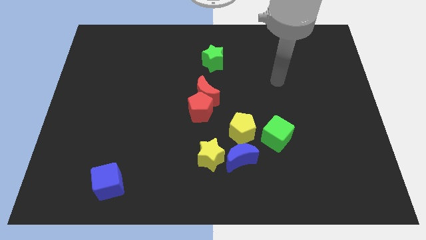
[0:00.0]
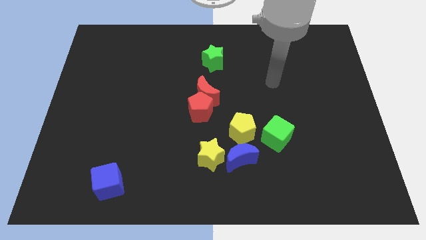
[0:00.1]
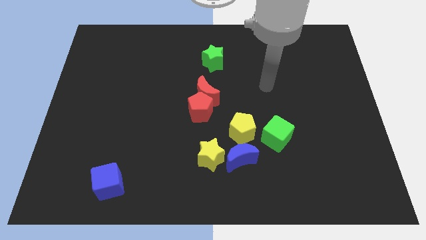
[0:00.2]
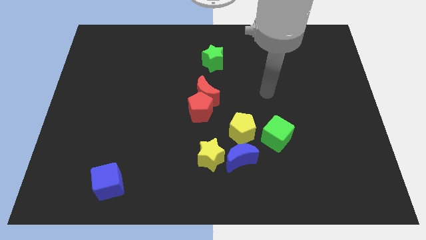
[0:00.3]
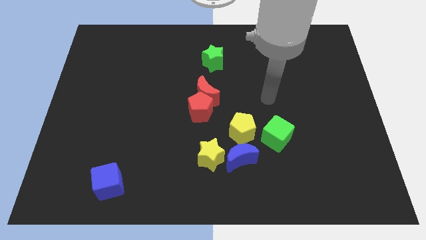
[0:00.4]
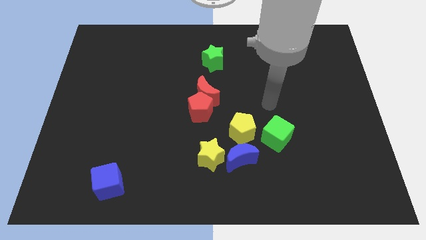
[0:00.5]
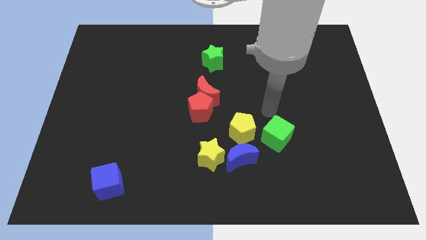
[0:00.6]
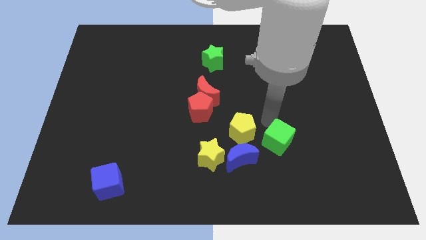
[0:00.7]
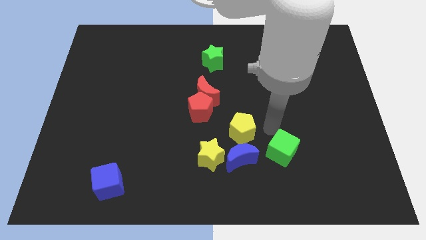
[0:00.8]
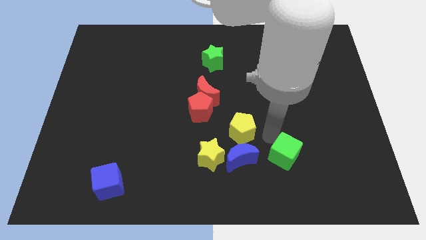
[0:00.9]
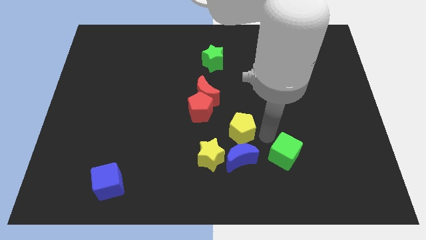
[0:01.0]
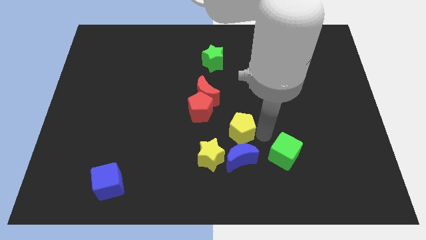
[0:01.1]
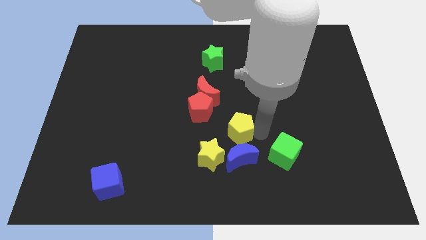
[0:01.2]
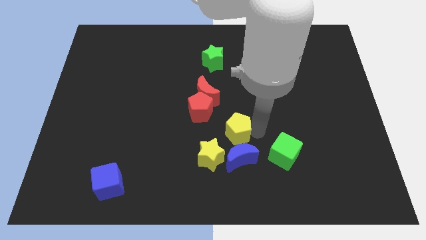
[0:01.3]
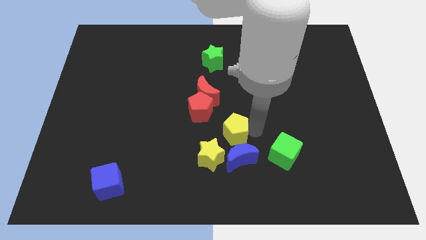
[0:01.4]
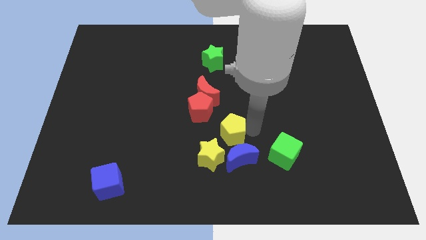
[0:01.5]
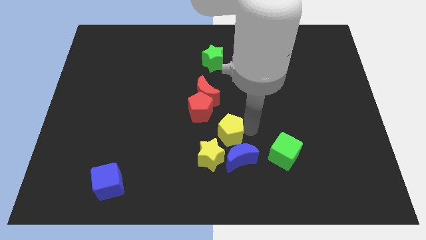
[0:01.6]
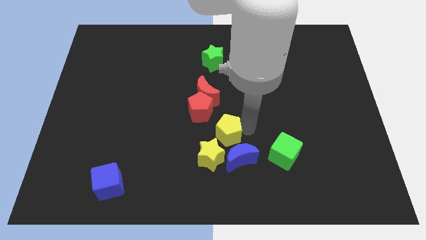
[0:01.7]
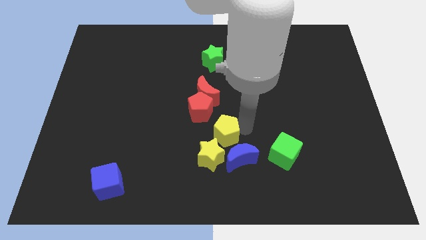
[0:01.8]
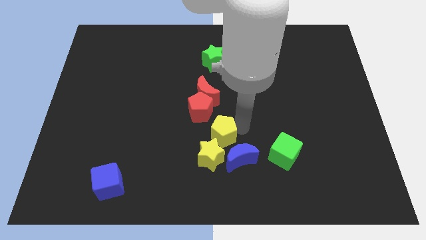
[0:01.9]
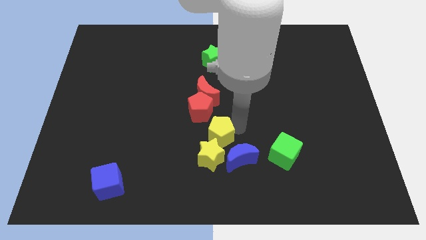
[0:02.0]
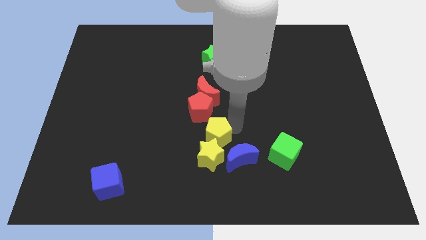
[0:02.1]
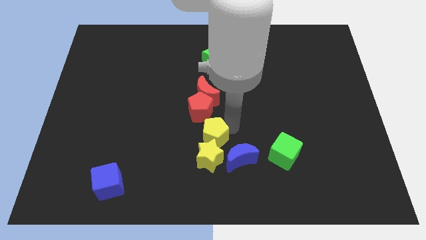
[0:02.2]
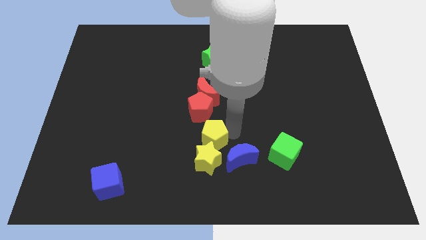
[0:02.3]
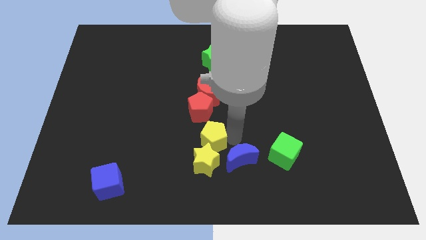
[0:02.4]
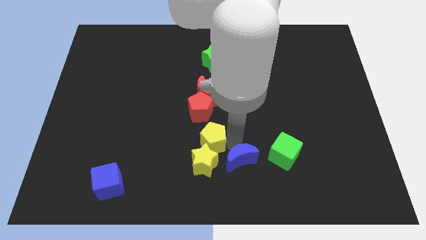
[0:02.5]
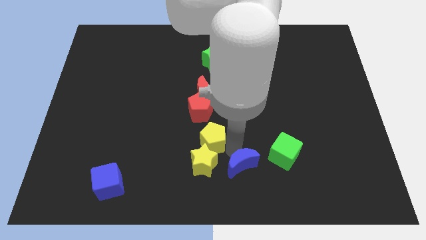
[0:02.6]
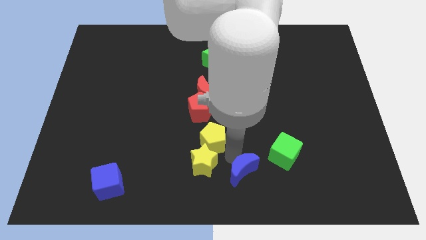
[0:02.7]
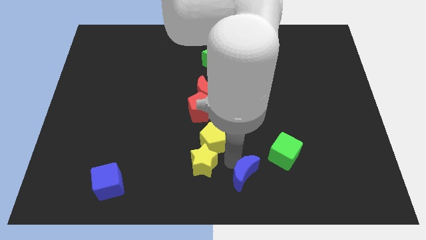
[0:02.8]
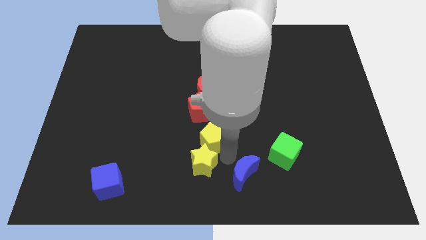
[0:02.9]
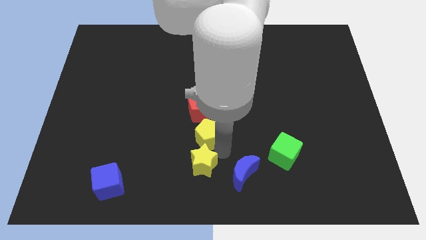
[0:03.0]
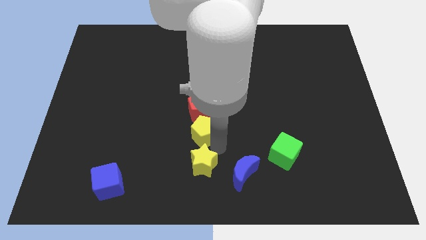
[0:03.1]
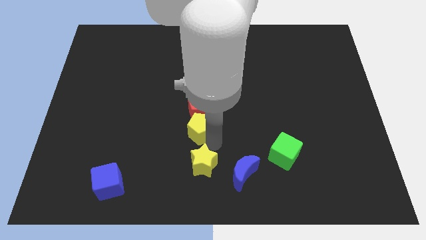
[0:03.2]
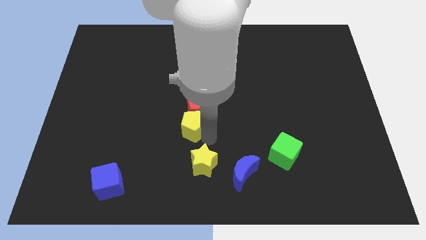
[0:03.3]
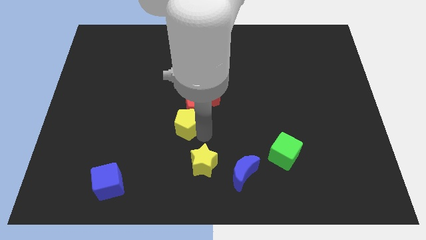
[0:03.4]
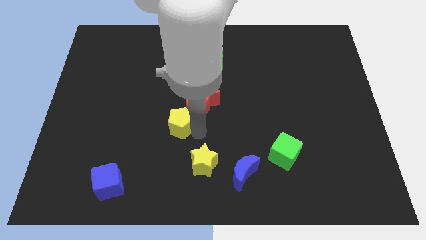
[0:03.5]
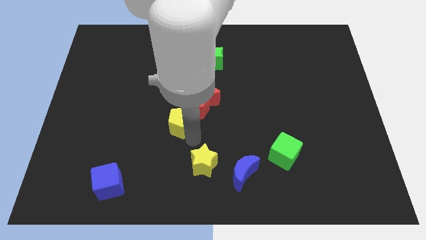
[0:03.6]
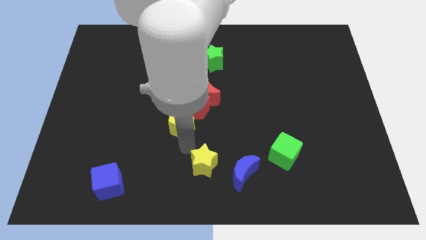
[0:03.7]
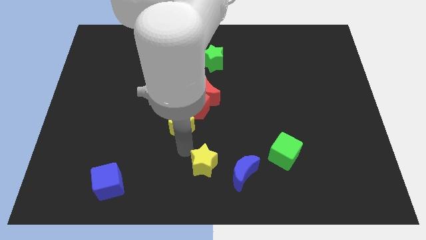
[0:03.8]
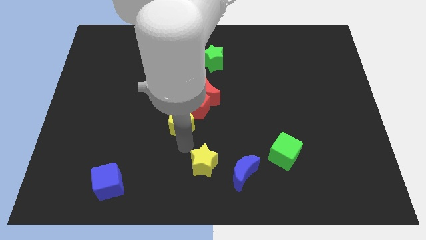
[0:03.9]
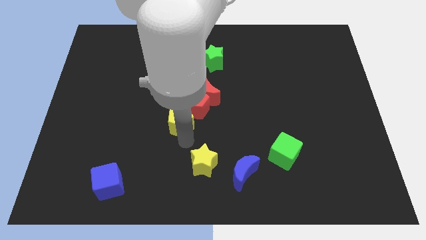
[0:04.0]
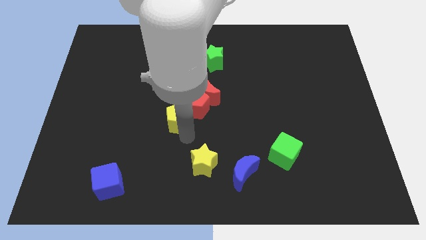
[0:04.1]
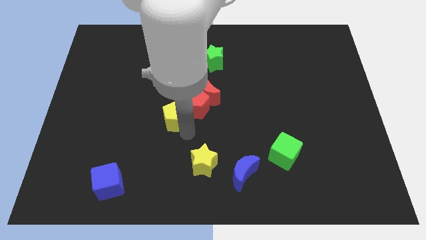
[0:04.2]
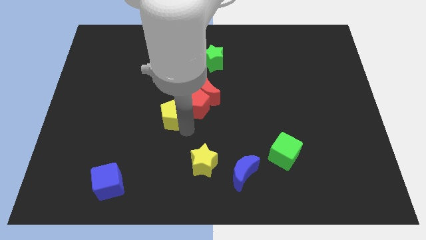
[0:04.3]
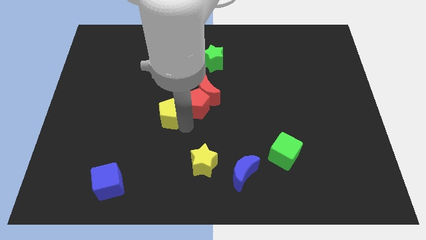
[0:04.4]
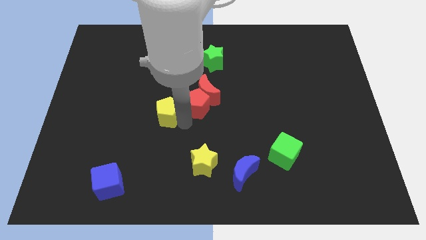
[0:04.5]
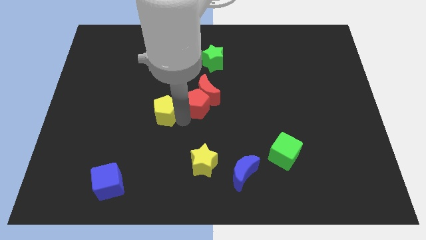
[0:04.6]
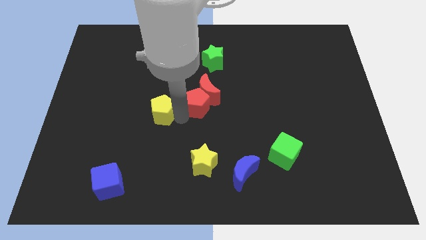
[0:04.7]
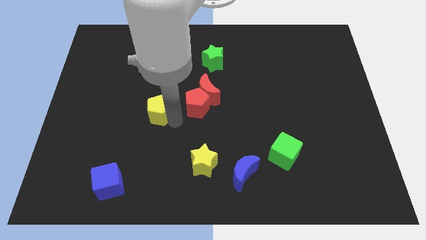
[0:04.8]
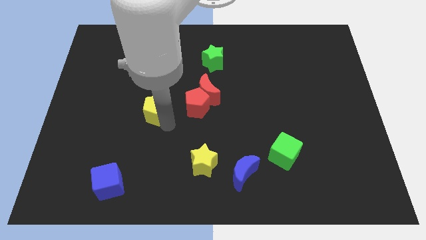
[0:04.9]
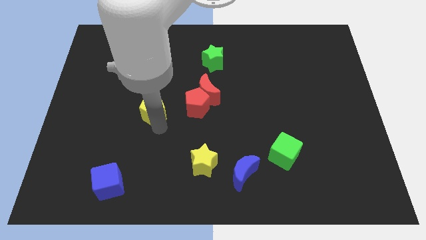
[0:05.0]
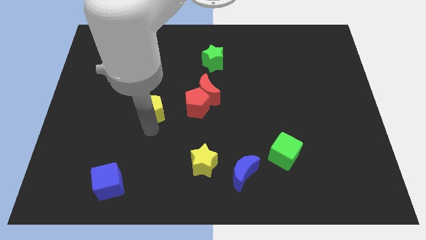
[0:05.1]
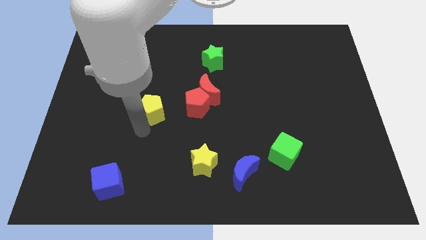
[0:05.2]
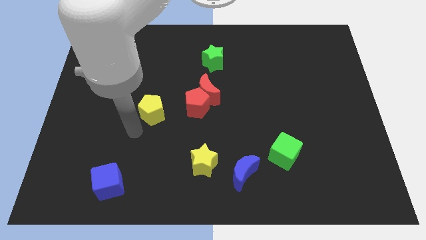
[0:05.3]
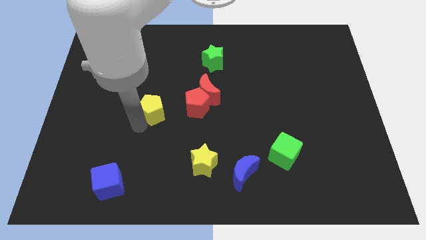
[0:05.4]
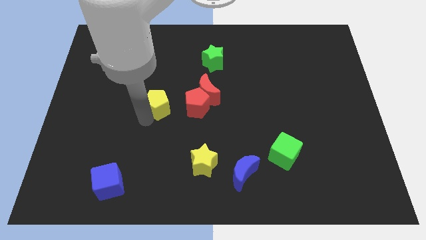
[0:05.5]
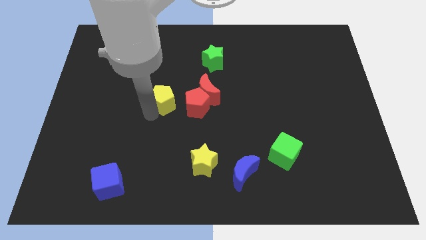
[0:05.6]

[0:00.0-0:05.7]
put the yellow pentagon diagonally up and to the left of the red pentagon

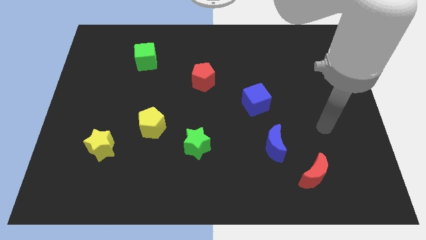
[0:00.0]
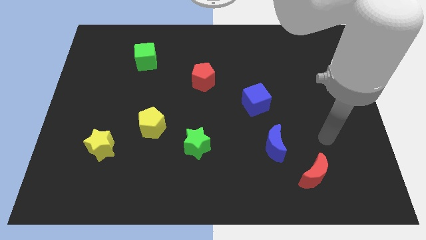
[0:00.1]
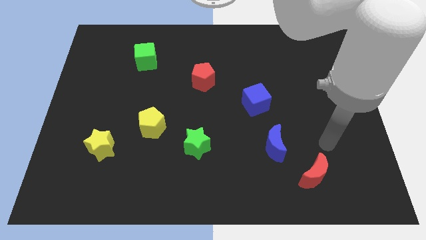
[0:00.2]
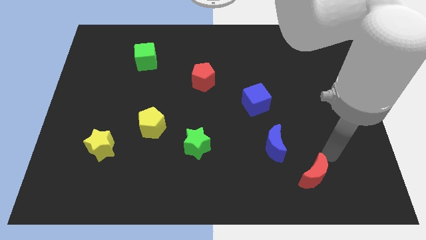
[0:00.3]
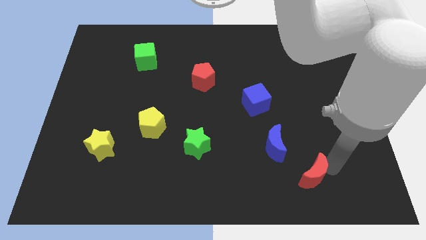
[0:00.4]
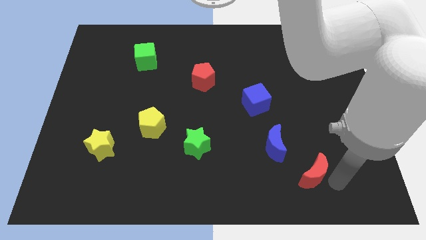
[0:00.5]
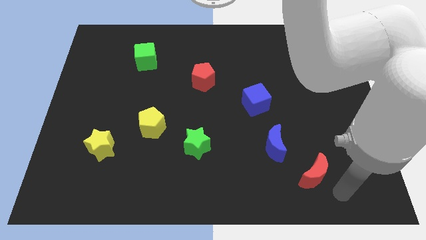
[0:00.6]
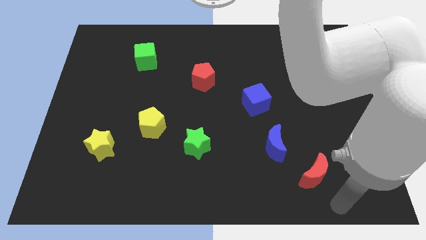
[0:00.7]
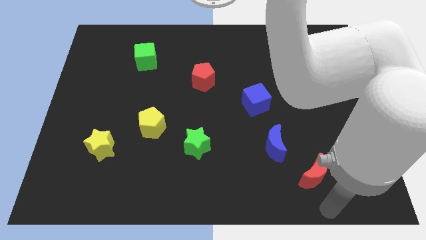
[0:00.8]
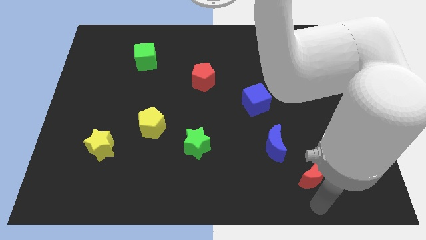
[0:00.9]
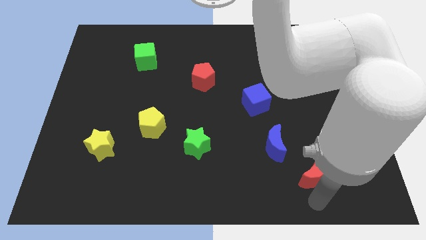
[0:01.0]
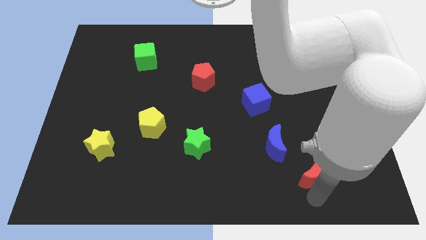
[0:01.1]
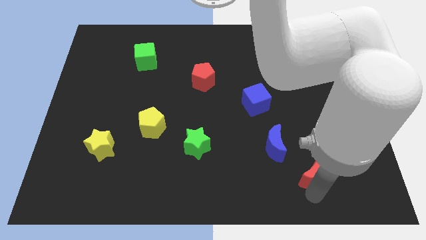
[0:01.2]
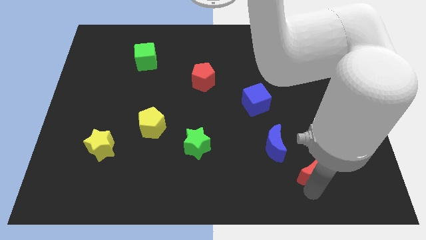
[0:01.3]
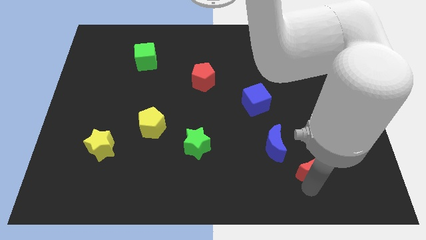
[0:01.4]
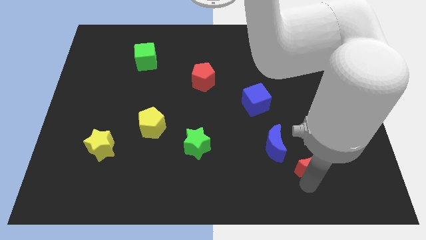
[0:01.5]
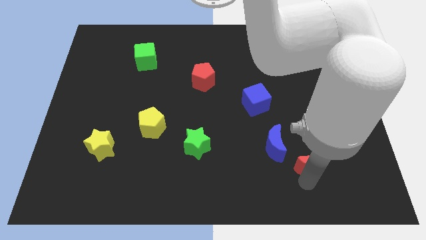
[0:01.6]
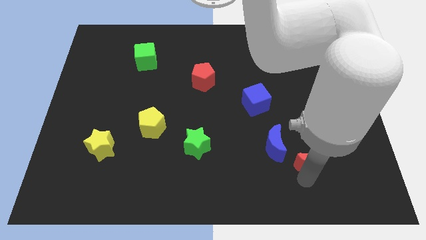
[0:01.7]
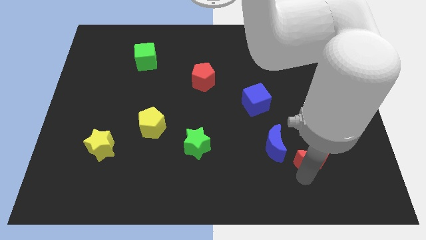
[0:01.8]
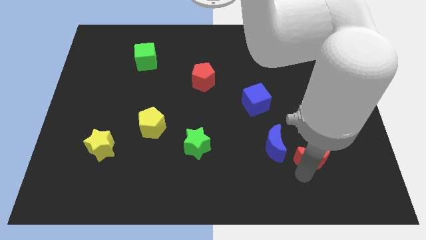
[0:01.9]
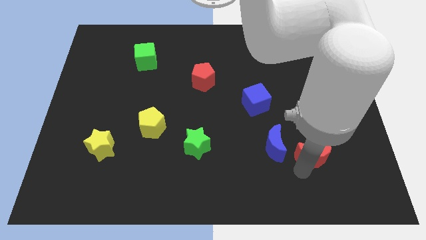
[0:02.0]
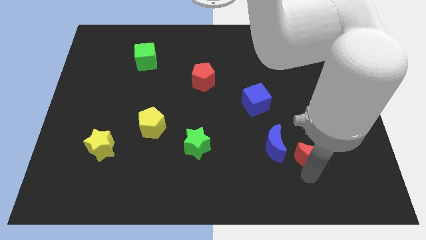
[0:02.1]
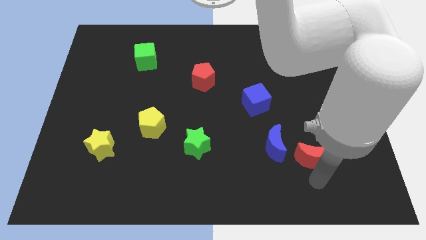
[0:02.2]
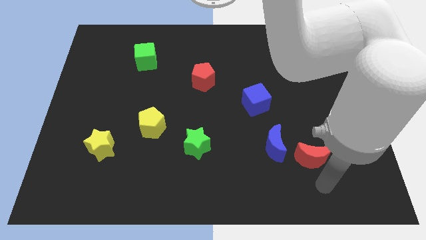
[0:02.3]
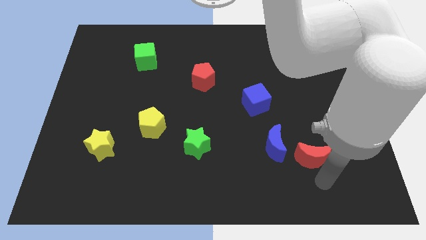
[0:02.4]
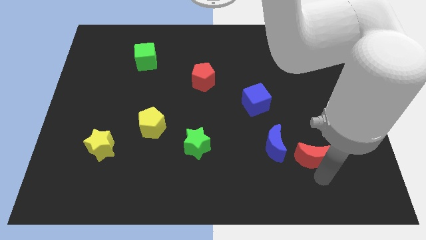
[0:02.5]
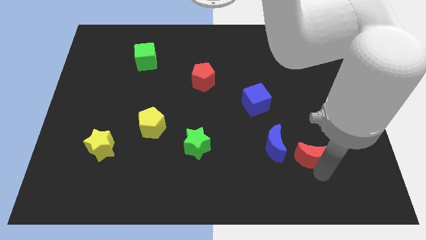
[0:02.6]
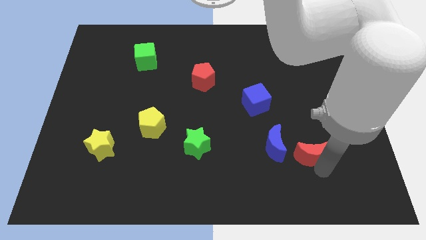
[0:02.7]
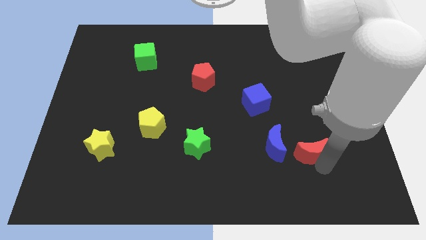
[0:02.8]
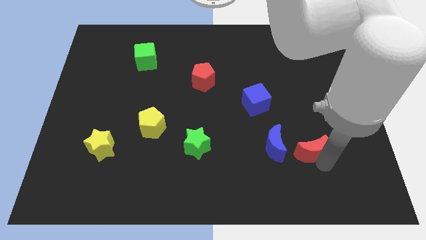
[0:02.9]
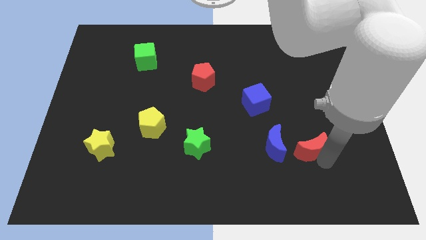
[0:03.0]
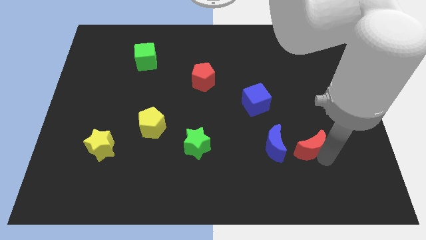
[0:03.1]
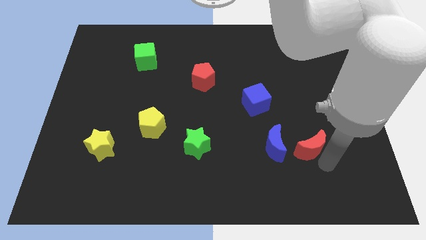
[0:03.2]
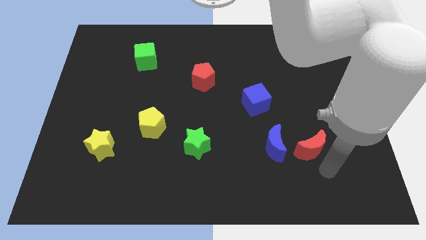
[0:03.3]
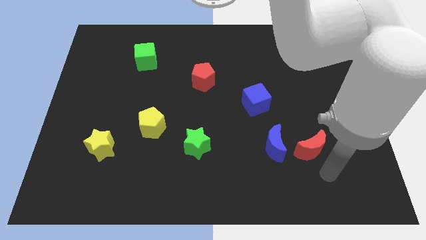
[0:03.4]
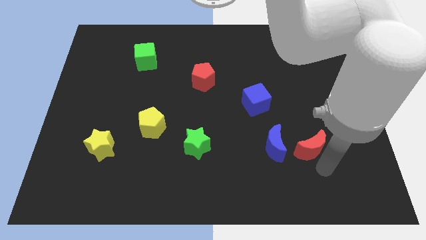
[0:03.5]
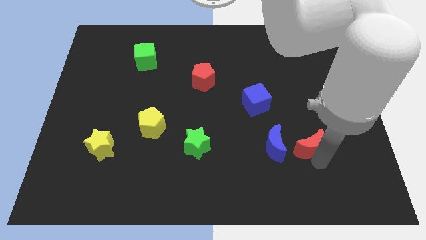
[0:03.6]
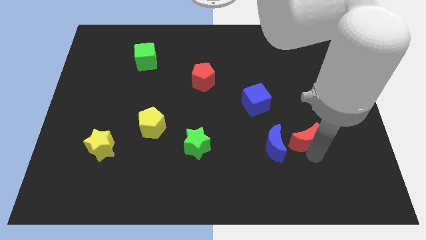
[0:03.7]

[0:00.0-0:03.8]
move the red moon to the top right side of the blue moon
